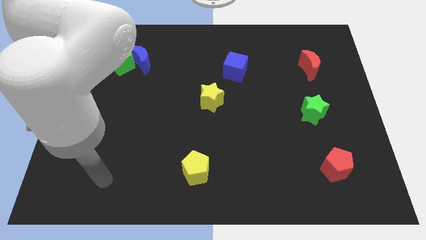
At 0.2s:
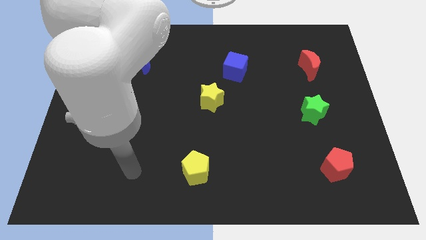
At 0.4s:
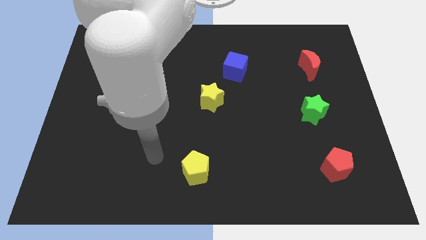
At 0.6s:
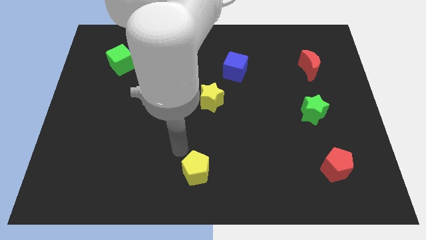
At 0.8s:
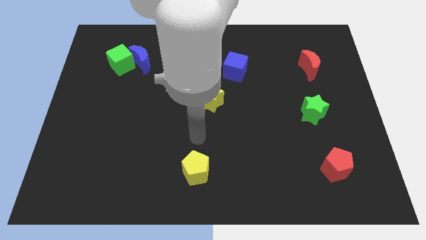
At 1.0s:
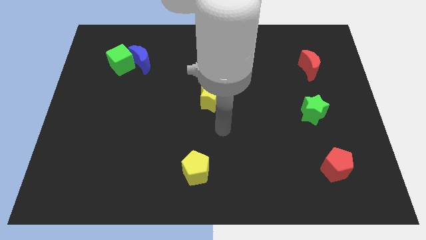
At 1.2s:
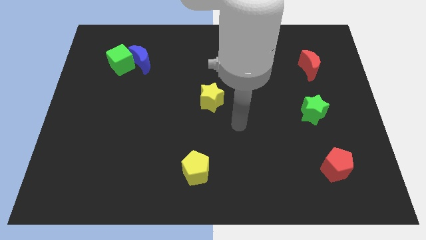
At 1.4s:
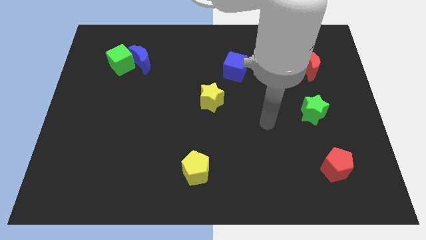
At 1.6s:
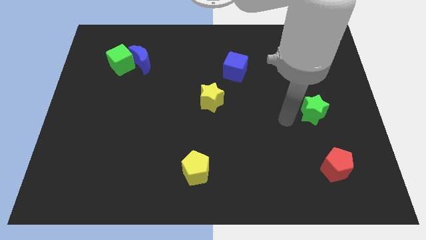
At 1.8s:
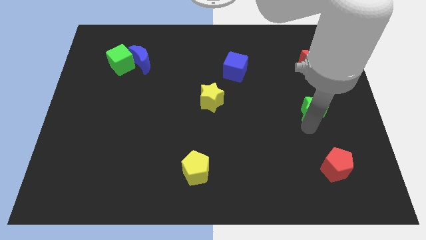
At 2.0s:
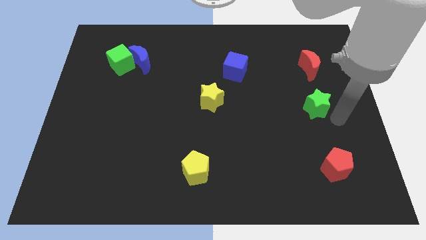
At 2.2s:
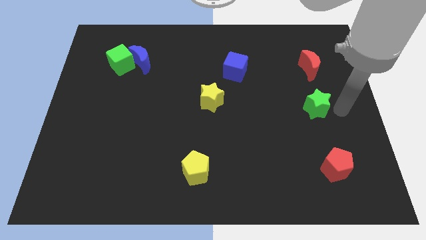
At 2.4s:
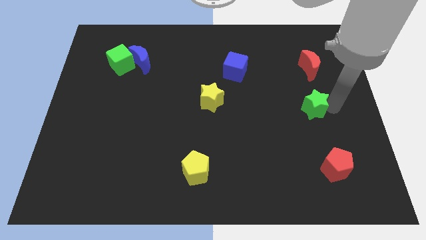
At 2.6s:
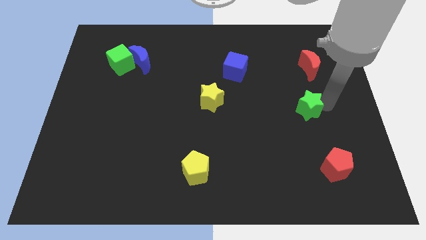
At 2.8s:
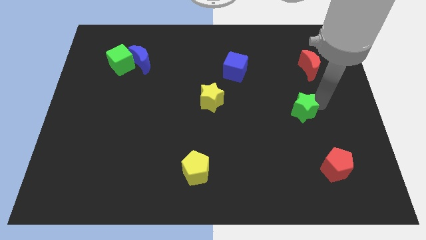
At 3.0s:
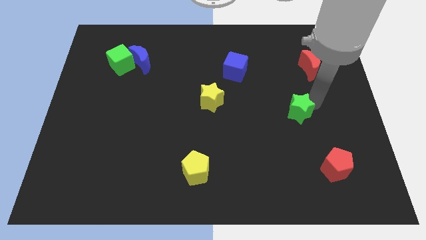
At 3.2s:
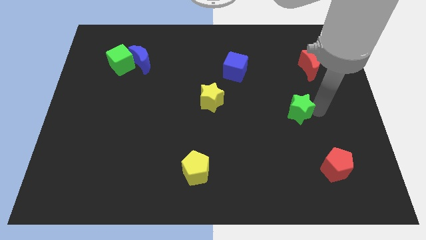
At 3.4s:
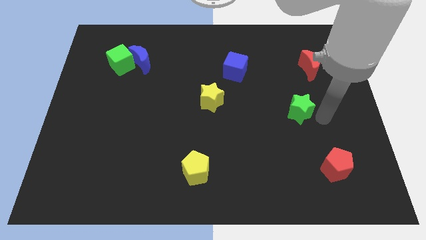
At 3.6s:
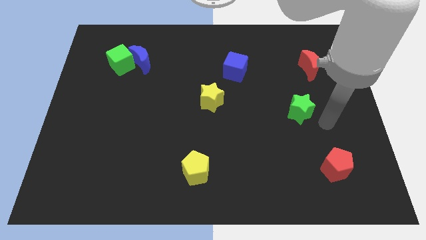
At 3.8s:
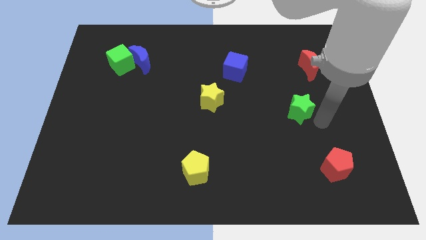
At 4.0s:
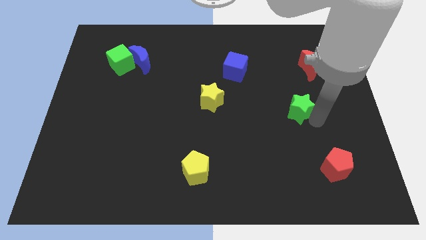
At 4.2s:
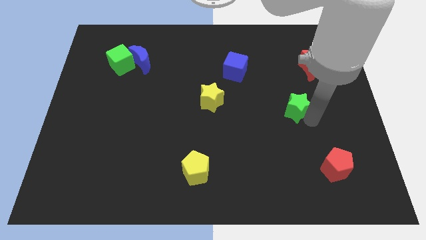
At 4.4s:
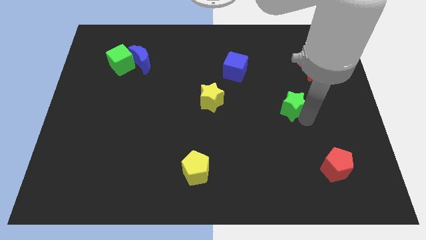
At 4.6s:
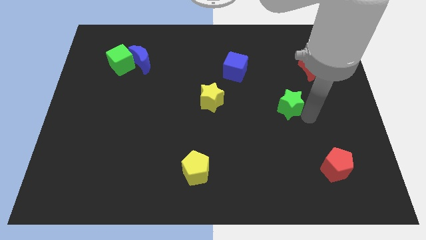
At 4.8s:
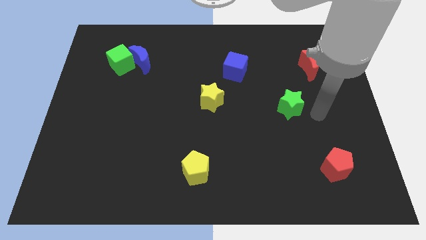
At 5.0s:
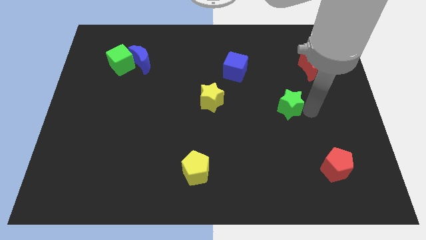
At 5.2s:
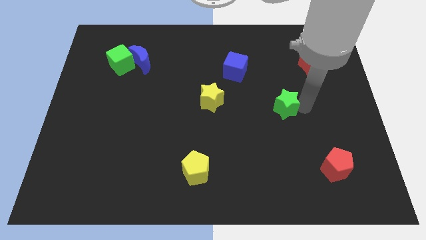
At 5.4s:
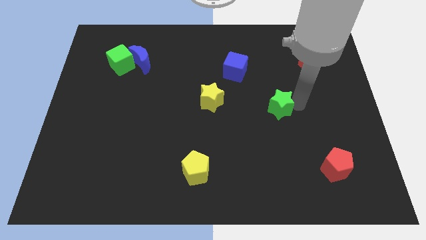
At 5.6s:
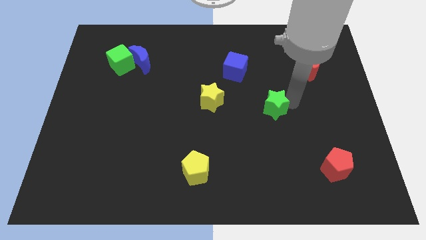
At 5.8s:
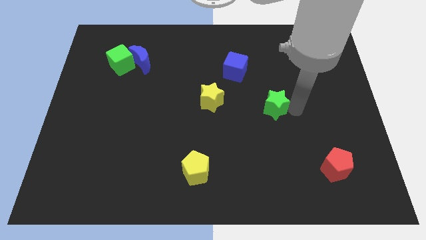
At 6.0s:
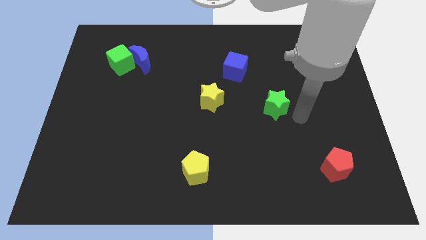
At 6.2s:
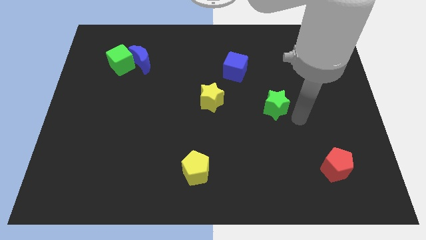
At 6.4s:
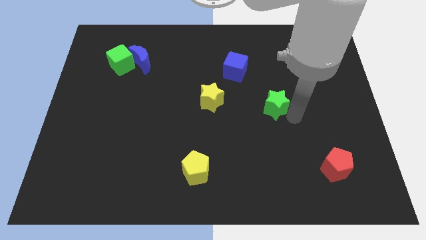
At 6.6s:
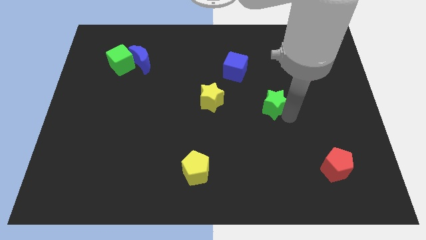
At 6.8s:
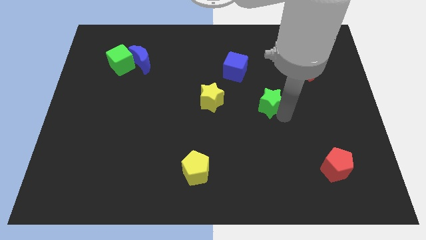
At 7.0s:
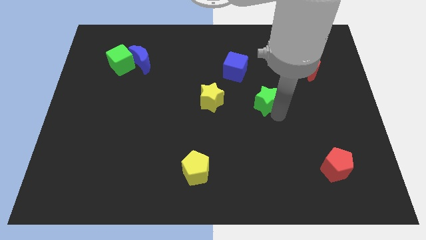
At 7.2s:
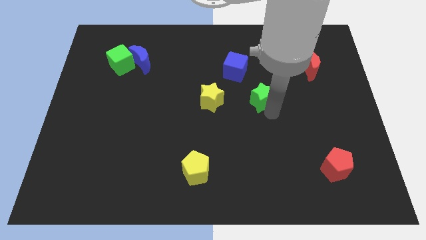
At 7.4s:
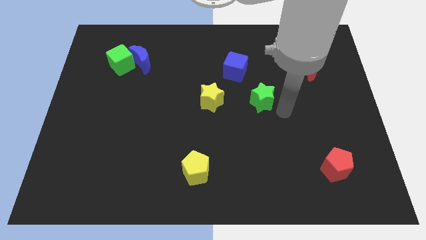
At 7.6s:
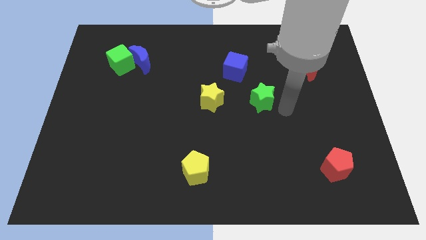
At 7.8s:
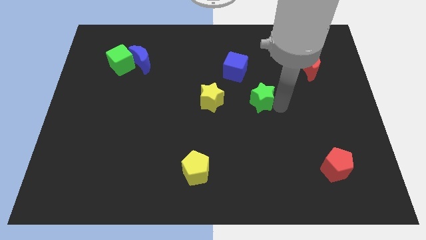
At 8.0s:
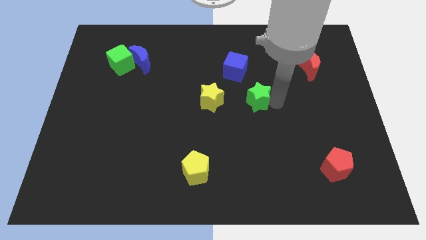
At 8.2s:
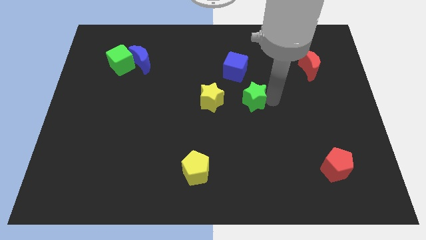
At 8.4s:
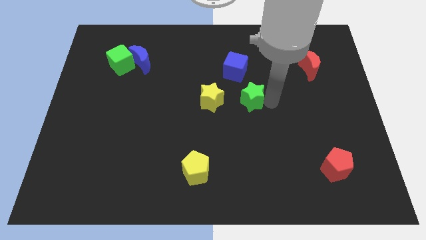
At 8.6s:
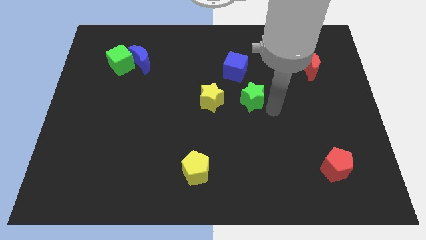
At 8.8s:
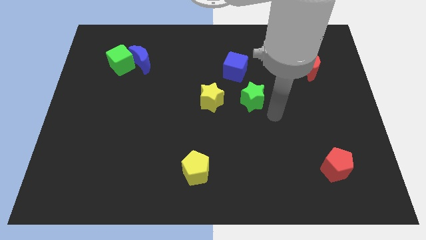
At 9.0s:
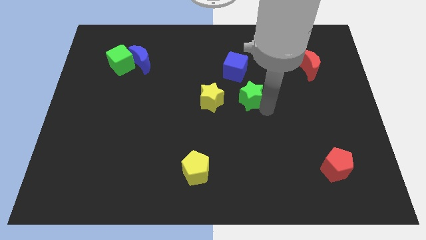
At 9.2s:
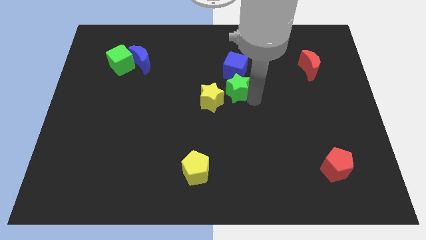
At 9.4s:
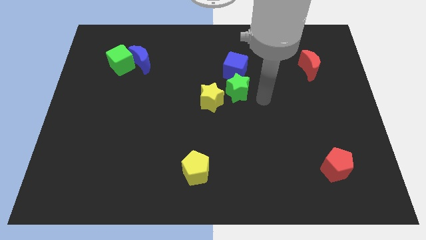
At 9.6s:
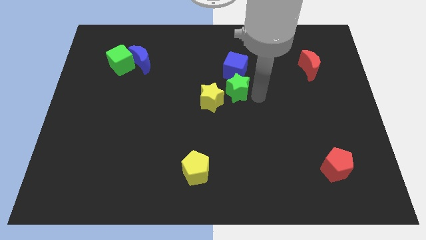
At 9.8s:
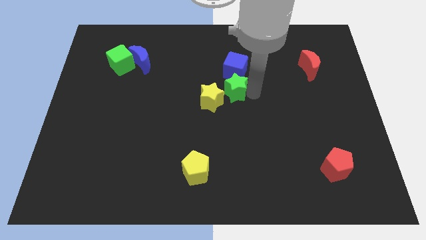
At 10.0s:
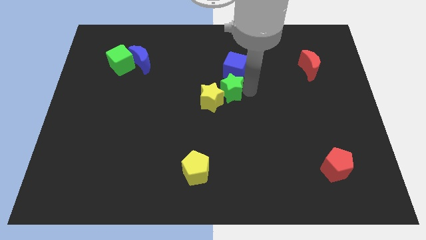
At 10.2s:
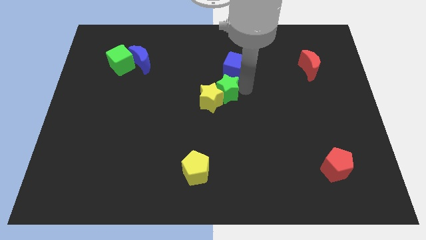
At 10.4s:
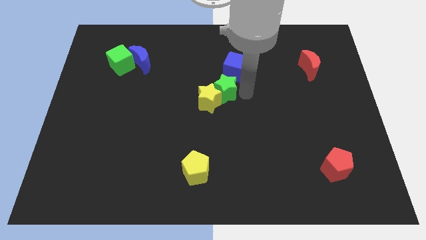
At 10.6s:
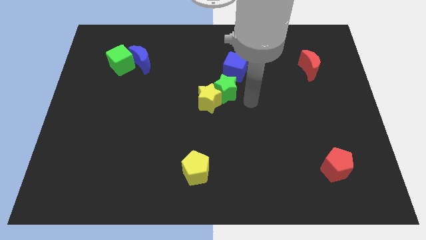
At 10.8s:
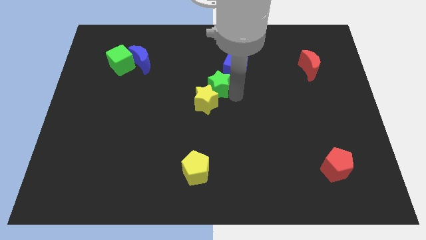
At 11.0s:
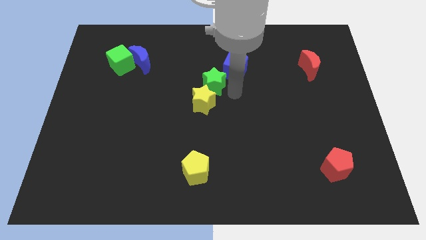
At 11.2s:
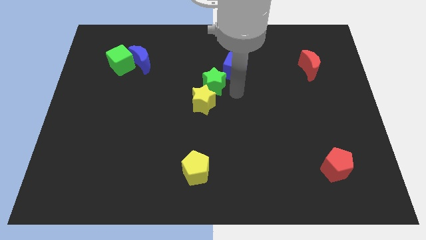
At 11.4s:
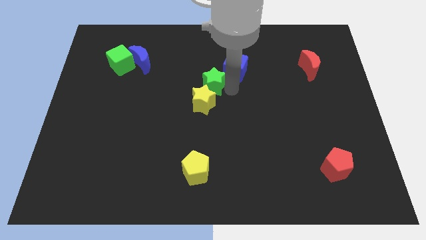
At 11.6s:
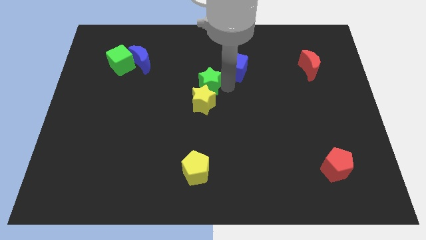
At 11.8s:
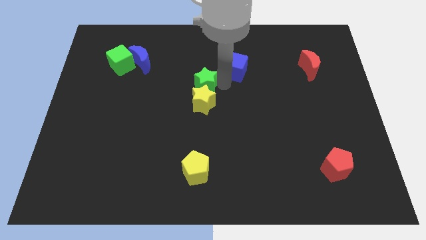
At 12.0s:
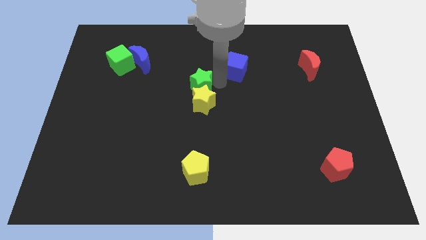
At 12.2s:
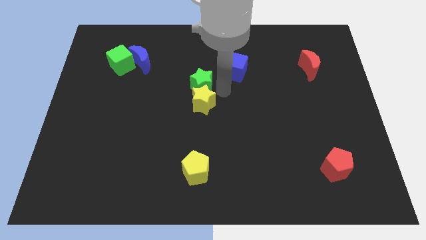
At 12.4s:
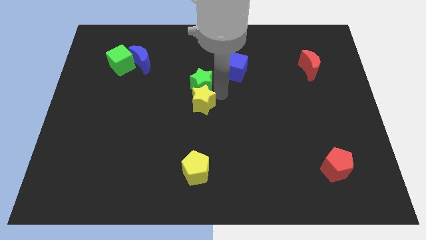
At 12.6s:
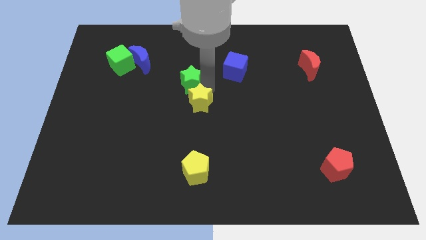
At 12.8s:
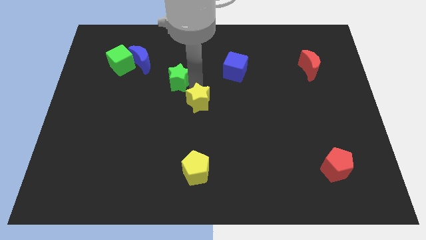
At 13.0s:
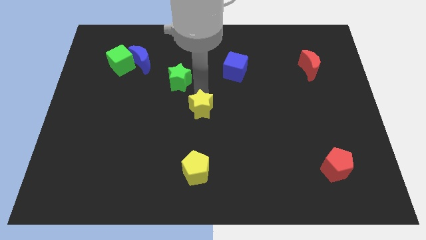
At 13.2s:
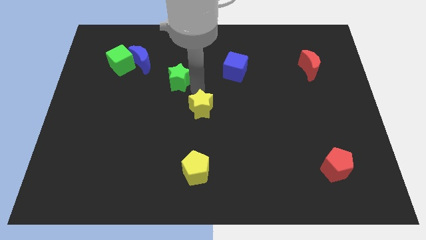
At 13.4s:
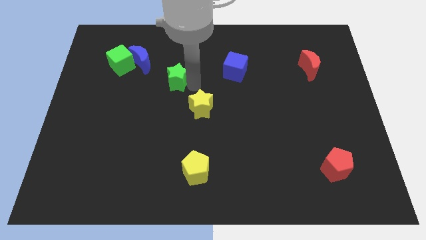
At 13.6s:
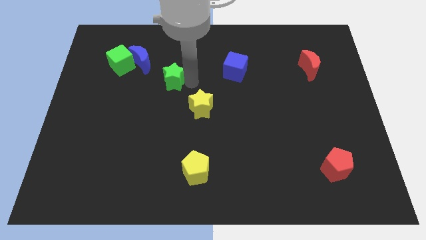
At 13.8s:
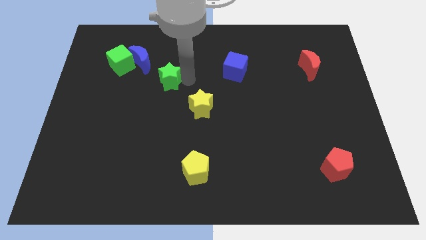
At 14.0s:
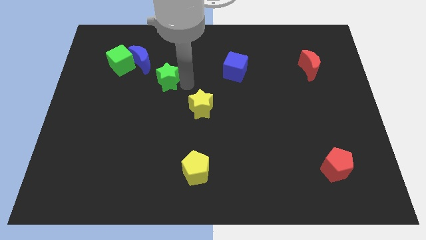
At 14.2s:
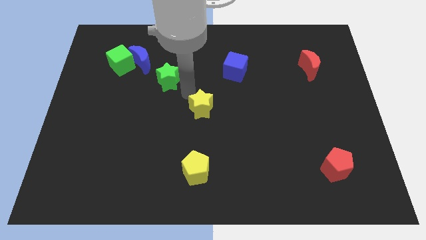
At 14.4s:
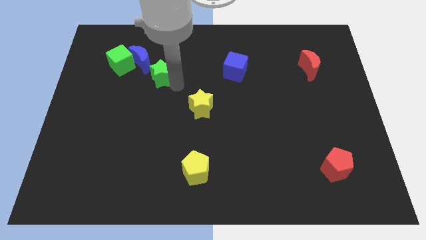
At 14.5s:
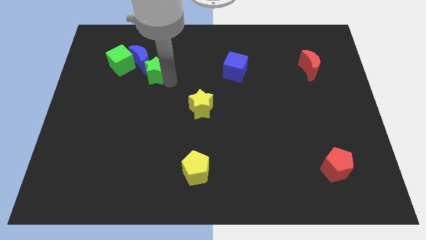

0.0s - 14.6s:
put the green star to the blue moon
